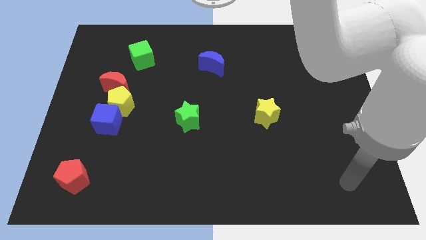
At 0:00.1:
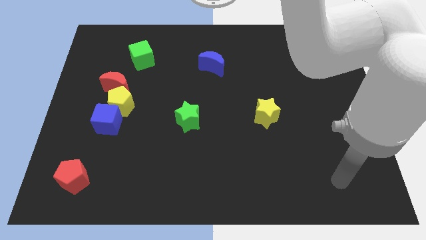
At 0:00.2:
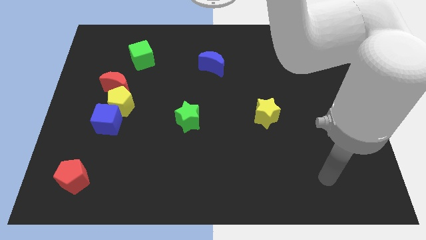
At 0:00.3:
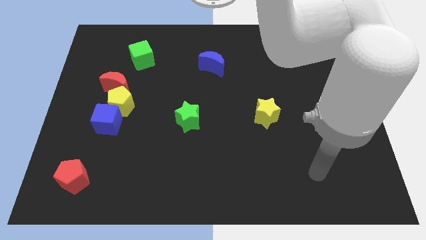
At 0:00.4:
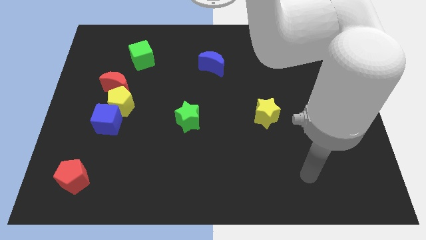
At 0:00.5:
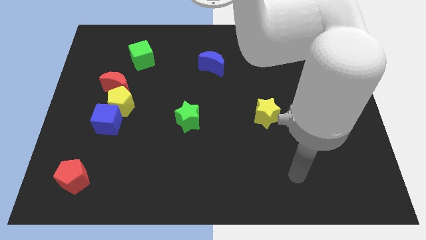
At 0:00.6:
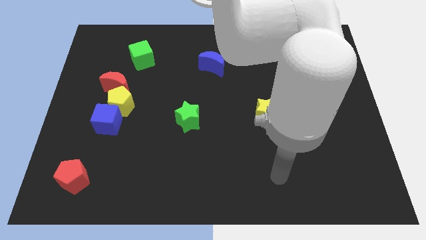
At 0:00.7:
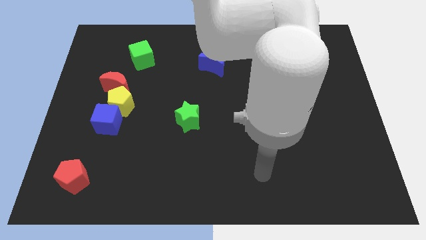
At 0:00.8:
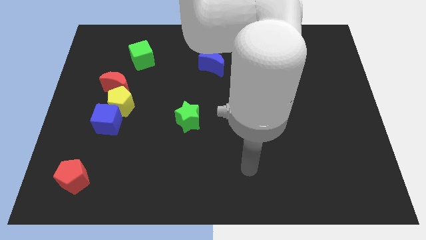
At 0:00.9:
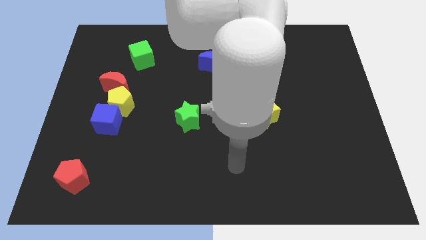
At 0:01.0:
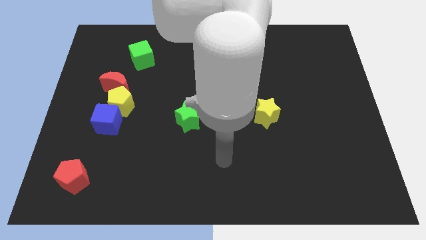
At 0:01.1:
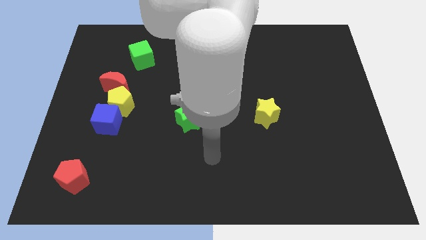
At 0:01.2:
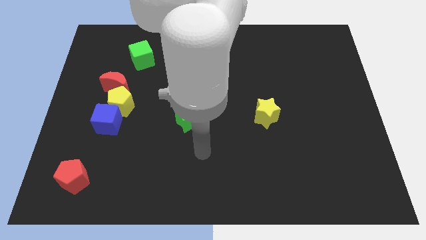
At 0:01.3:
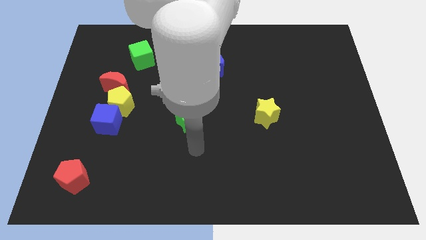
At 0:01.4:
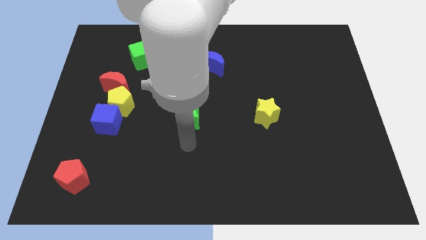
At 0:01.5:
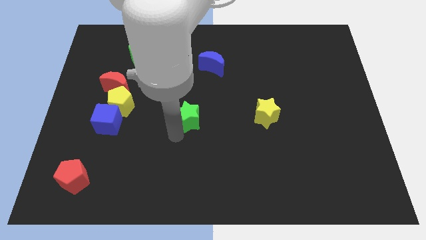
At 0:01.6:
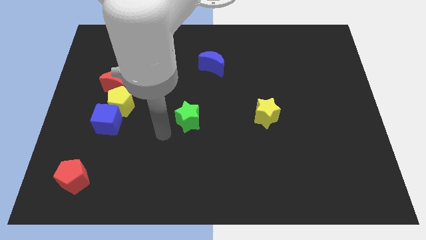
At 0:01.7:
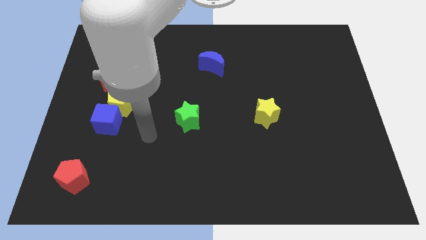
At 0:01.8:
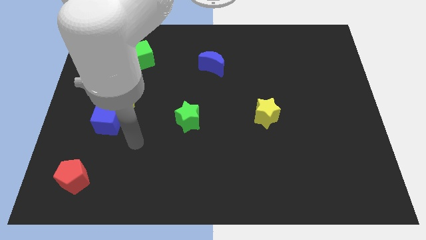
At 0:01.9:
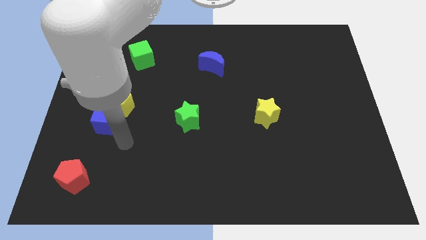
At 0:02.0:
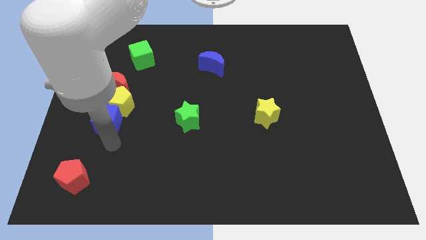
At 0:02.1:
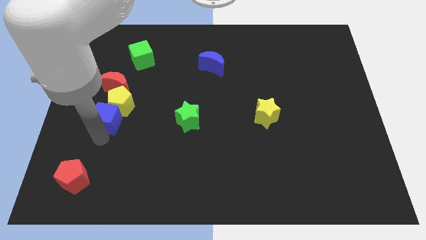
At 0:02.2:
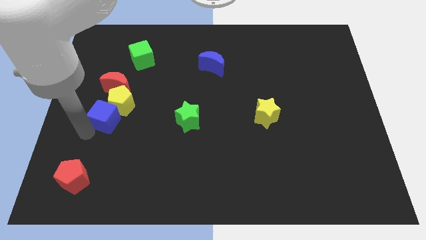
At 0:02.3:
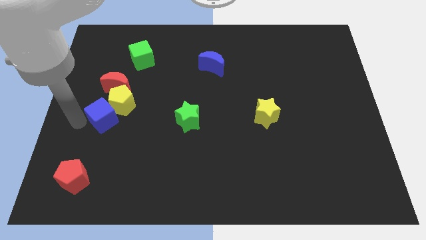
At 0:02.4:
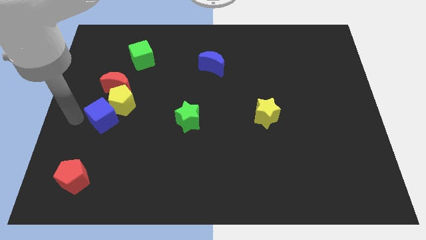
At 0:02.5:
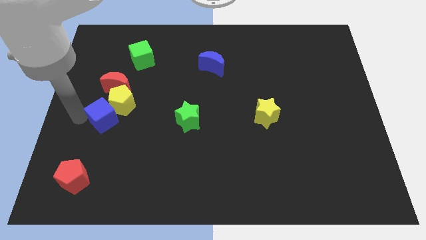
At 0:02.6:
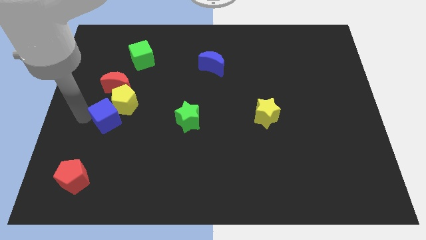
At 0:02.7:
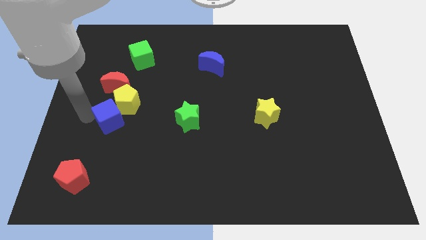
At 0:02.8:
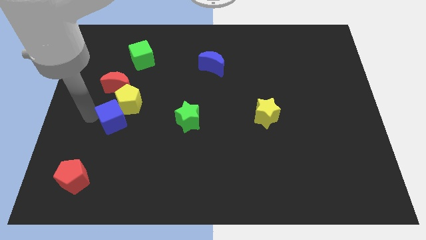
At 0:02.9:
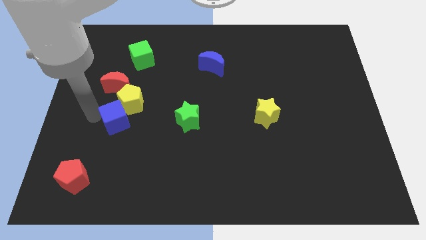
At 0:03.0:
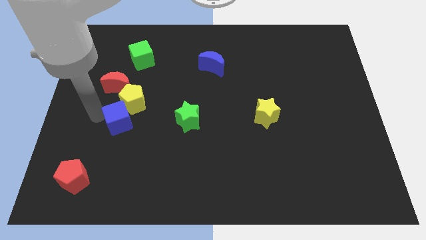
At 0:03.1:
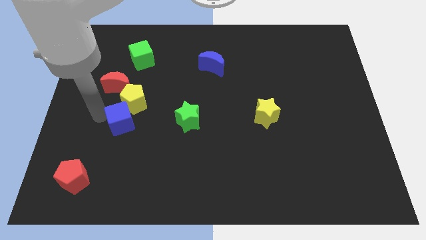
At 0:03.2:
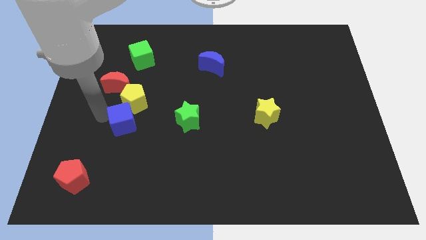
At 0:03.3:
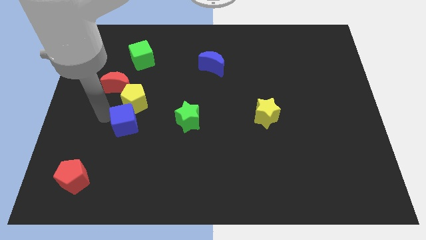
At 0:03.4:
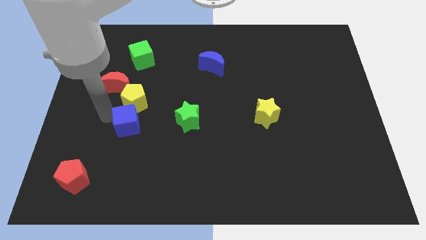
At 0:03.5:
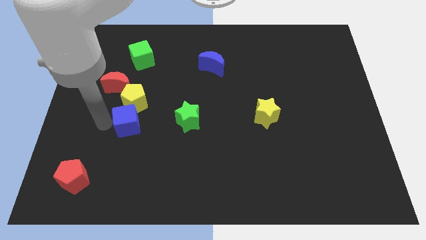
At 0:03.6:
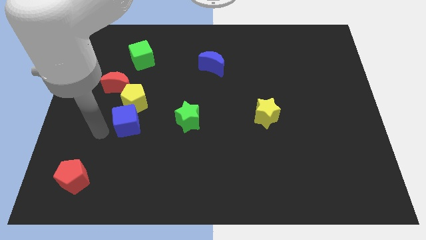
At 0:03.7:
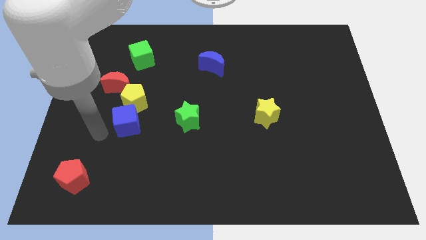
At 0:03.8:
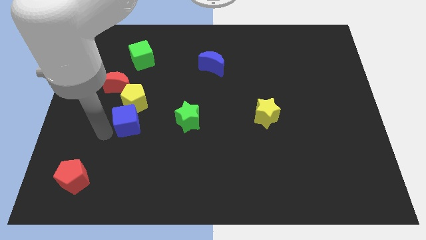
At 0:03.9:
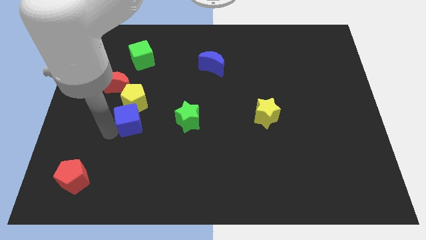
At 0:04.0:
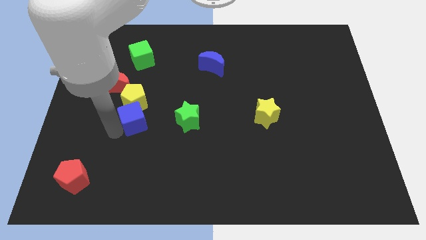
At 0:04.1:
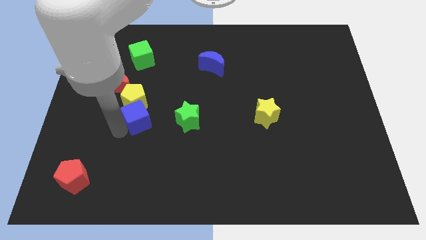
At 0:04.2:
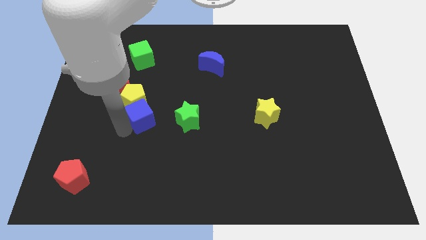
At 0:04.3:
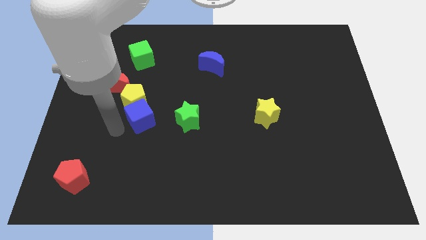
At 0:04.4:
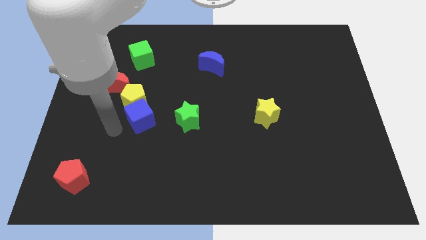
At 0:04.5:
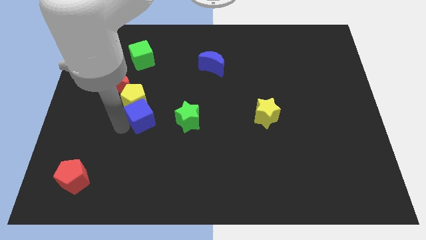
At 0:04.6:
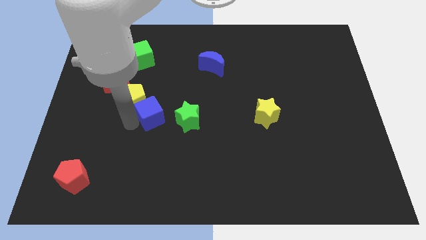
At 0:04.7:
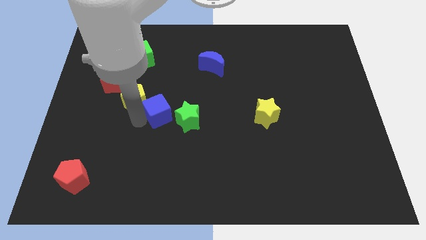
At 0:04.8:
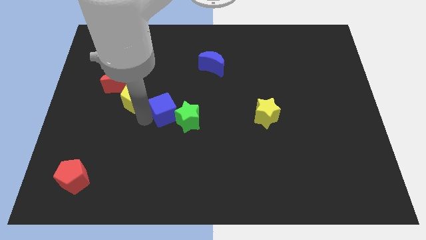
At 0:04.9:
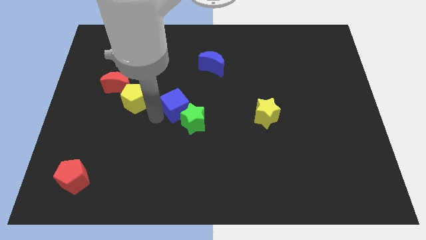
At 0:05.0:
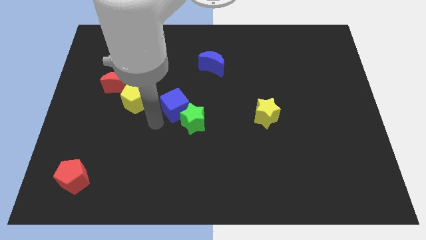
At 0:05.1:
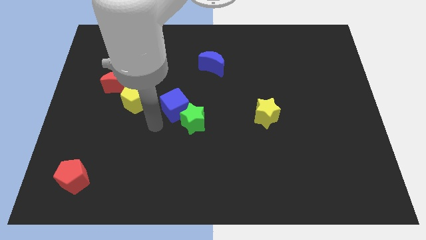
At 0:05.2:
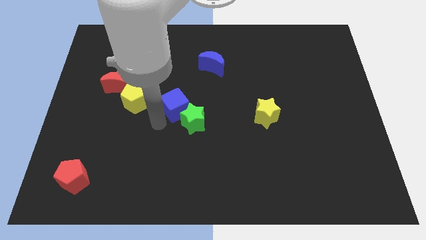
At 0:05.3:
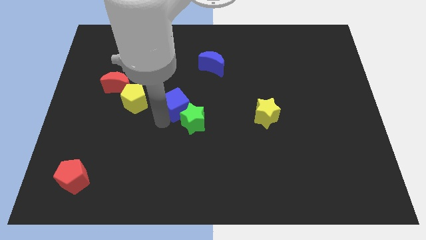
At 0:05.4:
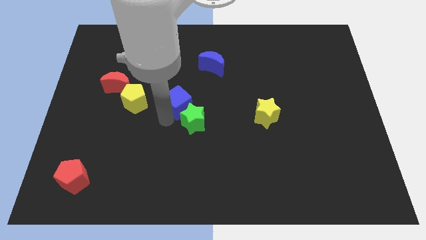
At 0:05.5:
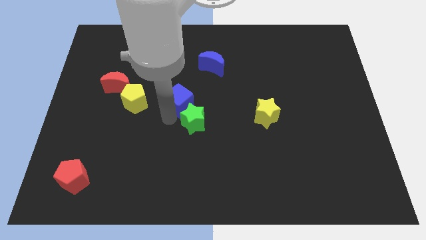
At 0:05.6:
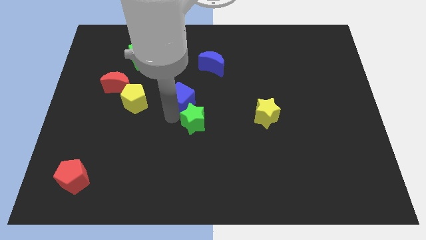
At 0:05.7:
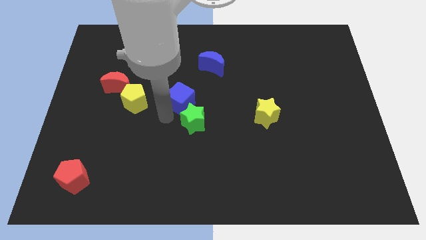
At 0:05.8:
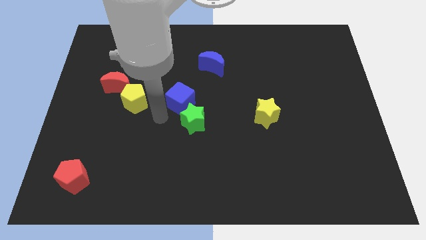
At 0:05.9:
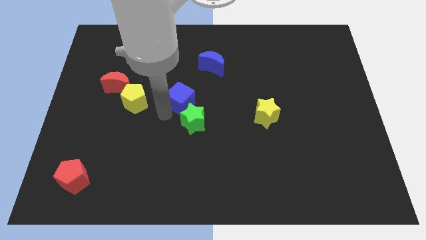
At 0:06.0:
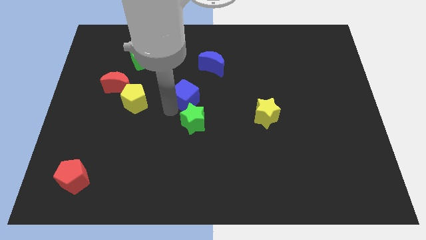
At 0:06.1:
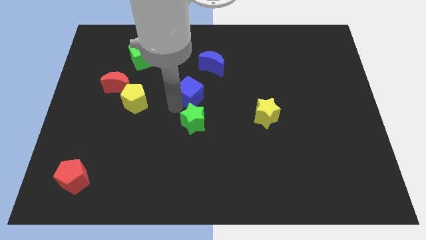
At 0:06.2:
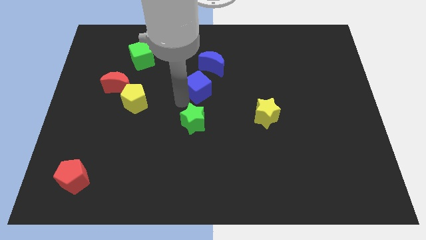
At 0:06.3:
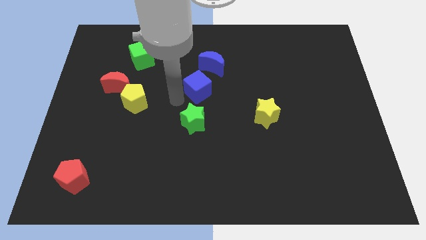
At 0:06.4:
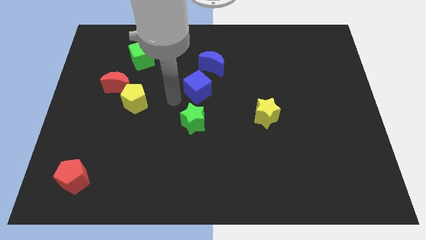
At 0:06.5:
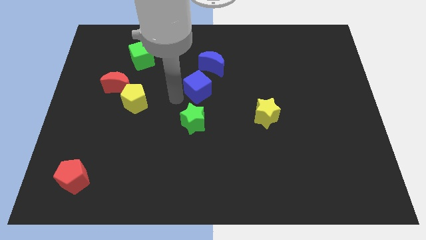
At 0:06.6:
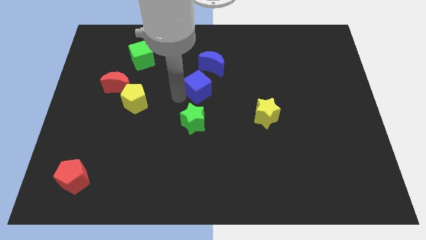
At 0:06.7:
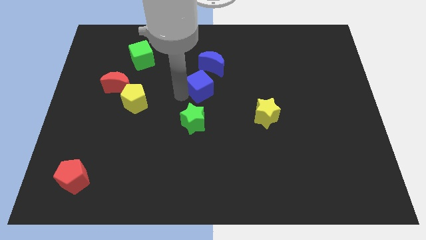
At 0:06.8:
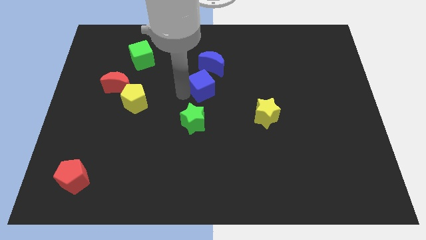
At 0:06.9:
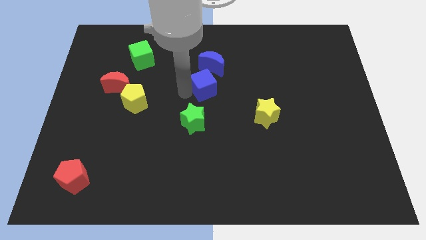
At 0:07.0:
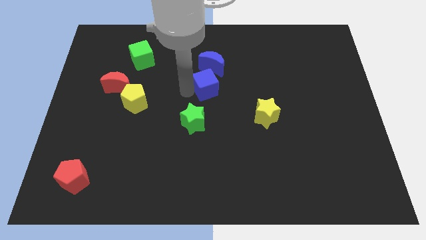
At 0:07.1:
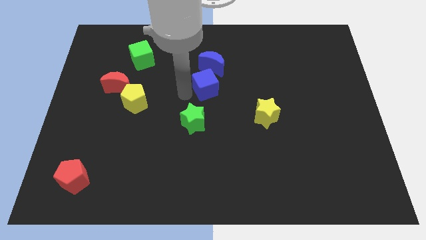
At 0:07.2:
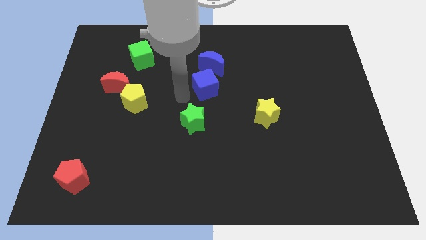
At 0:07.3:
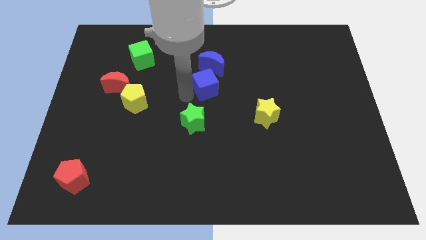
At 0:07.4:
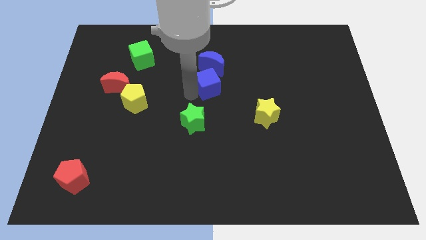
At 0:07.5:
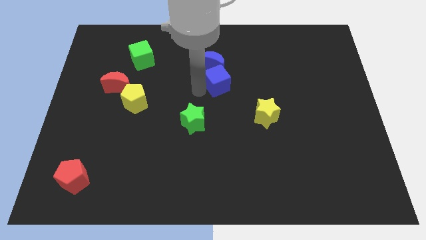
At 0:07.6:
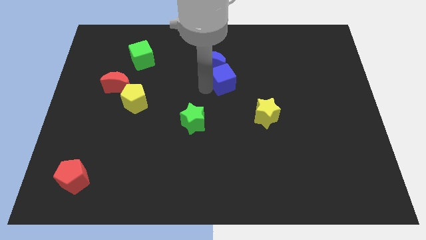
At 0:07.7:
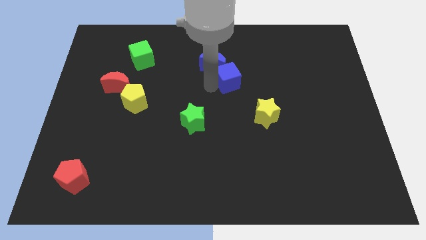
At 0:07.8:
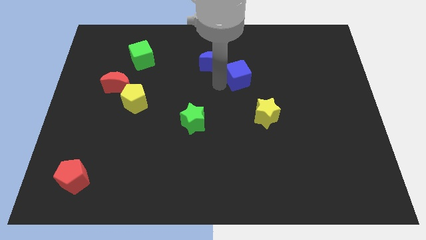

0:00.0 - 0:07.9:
slide the blue cube right of the blue moon

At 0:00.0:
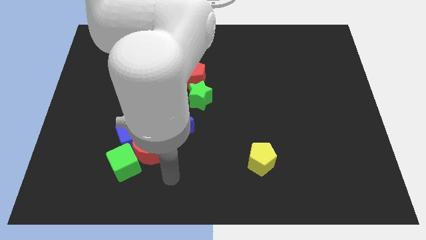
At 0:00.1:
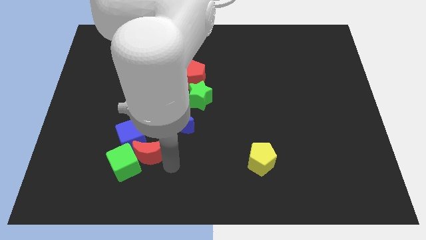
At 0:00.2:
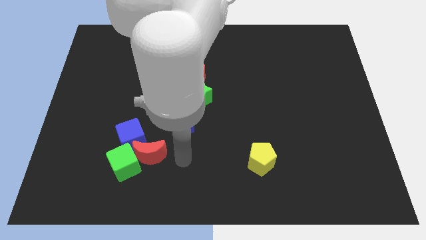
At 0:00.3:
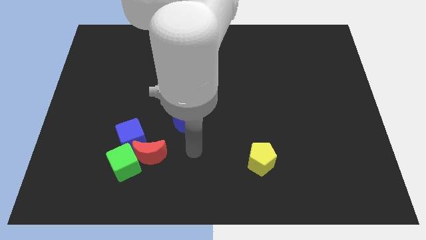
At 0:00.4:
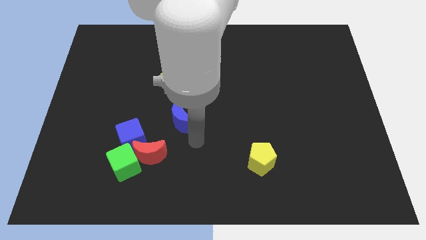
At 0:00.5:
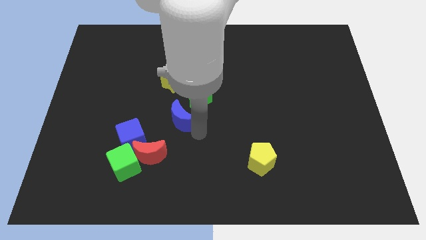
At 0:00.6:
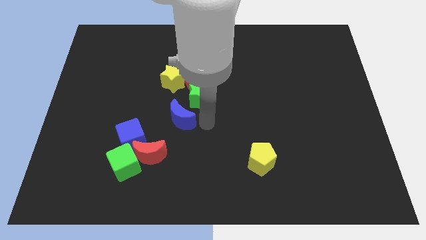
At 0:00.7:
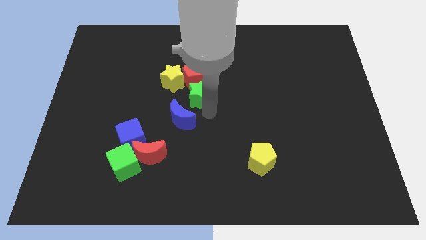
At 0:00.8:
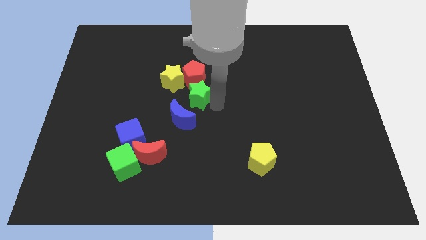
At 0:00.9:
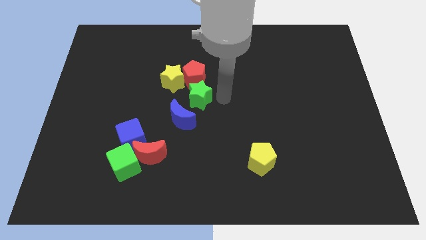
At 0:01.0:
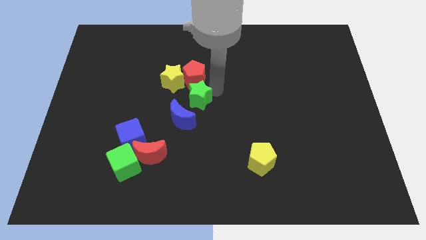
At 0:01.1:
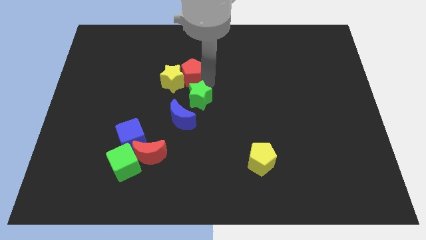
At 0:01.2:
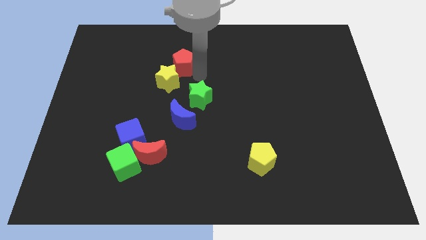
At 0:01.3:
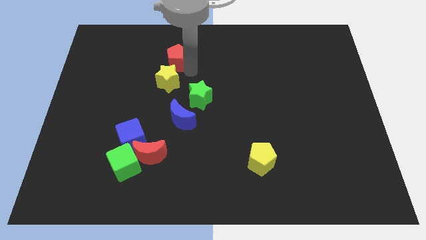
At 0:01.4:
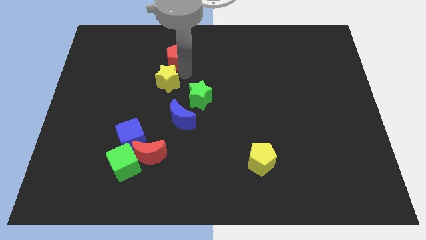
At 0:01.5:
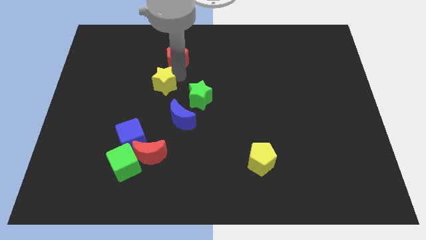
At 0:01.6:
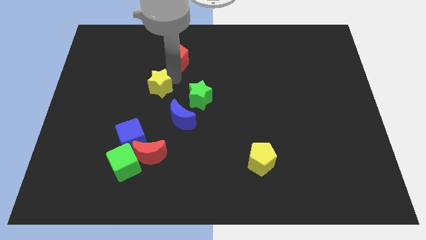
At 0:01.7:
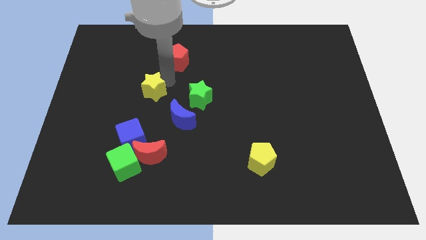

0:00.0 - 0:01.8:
put the yellow star to the top side of the blue cube
